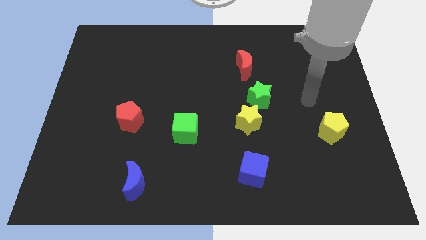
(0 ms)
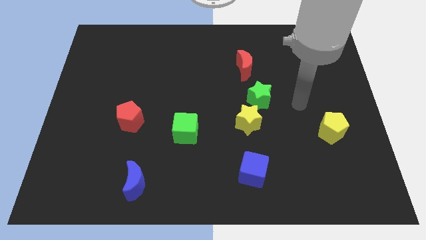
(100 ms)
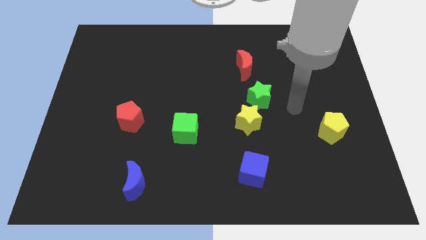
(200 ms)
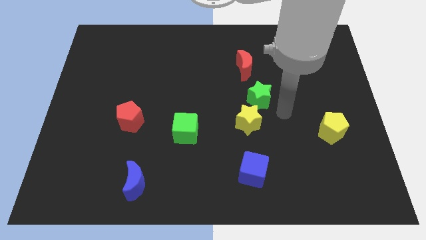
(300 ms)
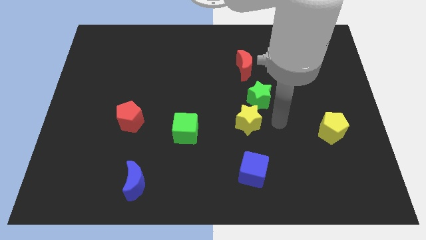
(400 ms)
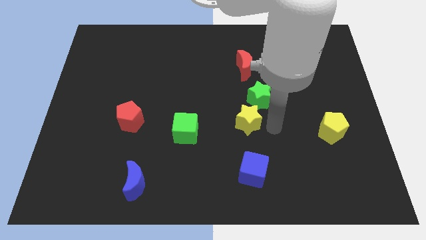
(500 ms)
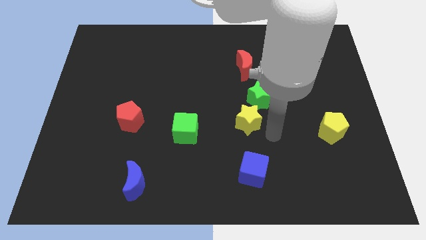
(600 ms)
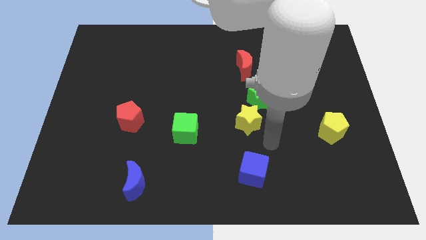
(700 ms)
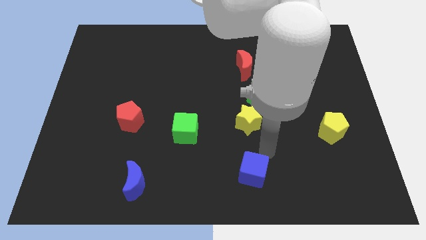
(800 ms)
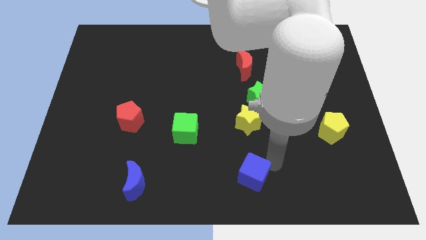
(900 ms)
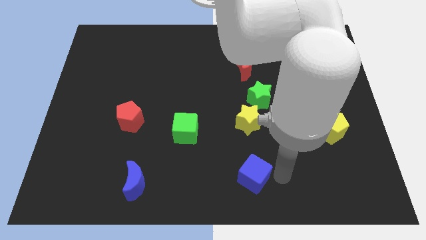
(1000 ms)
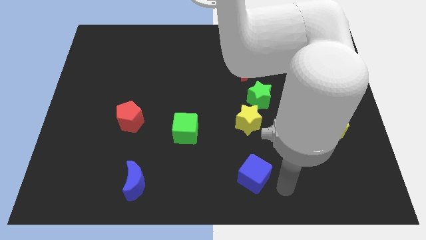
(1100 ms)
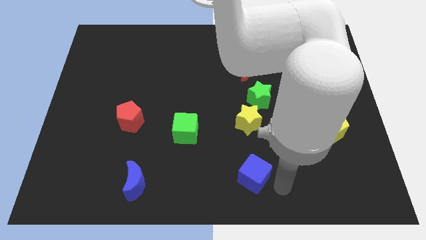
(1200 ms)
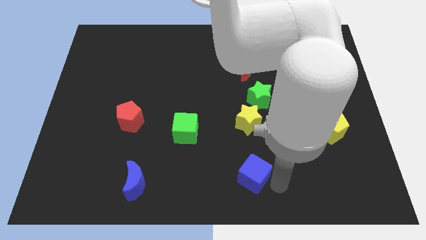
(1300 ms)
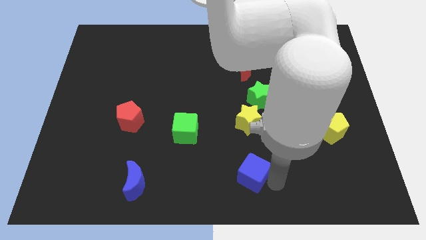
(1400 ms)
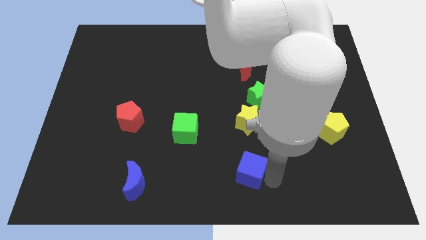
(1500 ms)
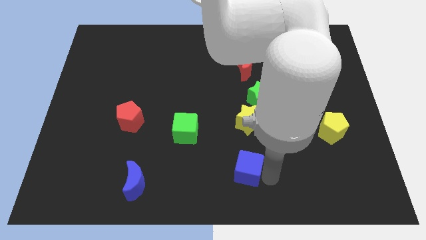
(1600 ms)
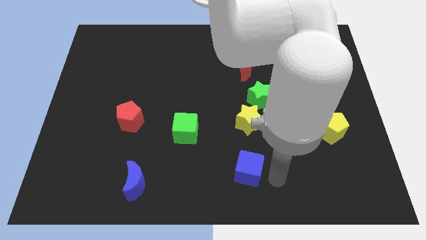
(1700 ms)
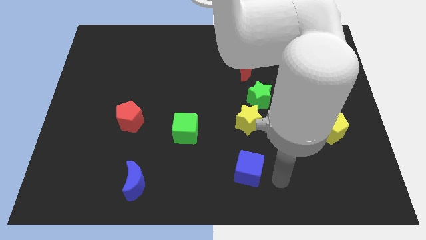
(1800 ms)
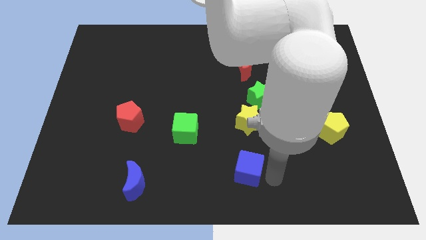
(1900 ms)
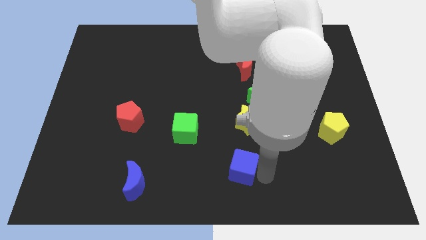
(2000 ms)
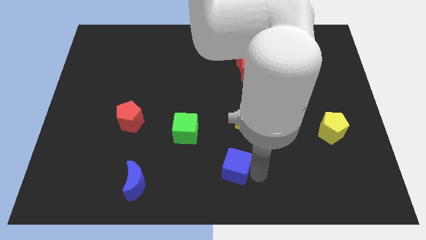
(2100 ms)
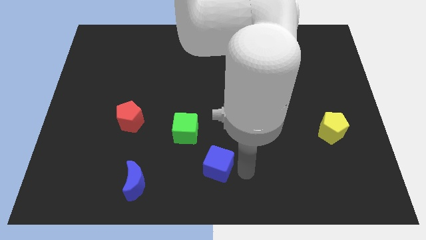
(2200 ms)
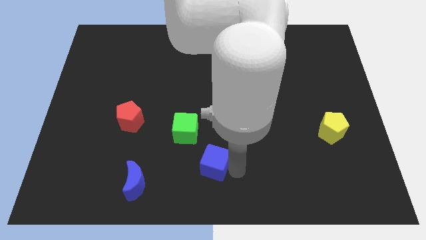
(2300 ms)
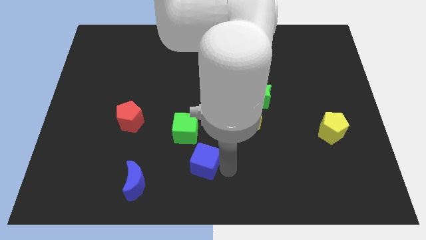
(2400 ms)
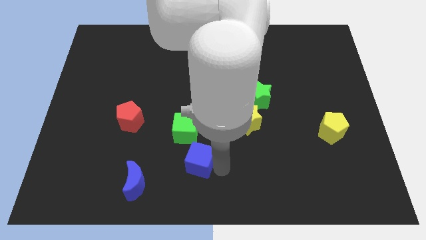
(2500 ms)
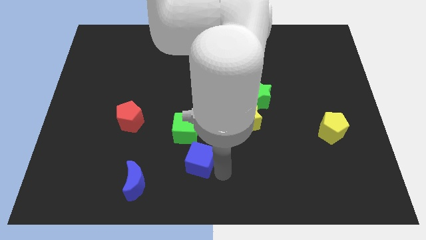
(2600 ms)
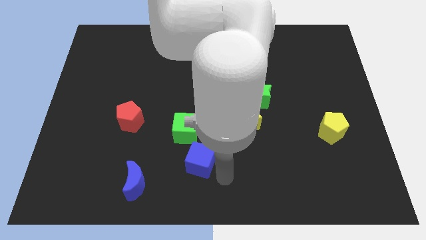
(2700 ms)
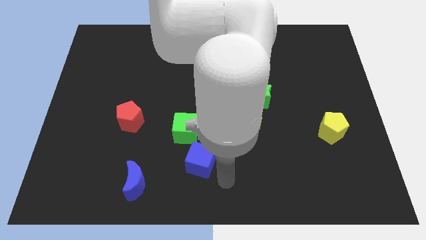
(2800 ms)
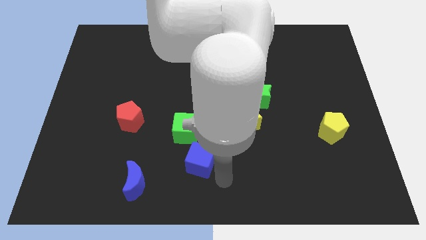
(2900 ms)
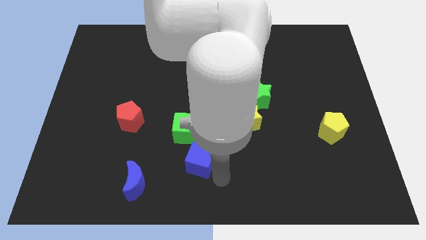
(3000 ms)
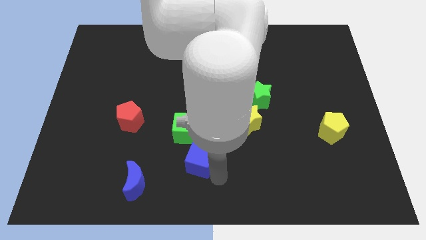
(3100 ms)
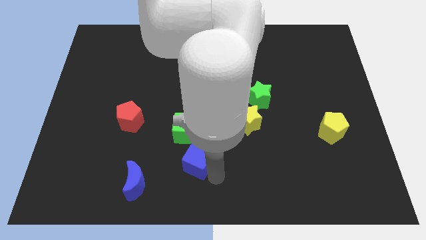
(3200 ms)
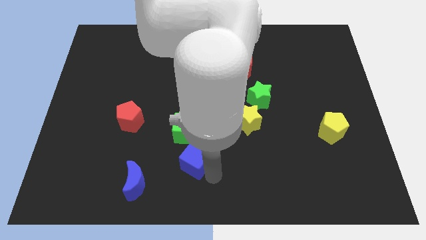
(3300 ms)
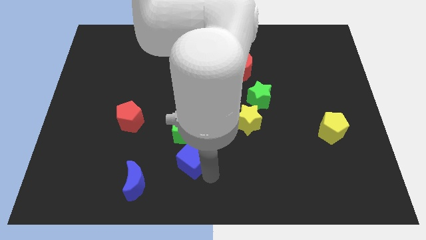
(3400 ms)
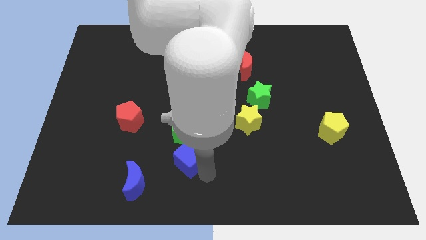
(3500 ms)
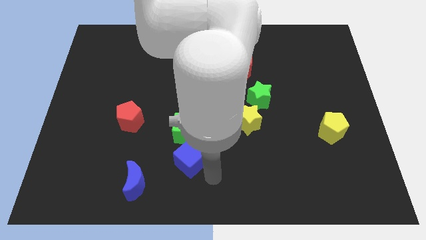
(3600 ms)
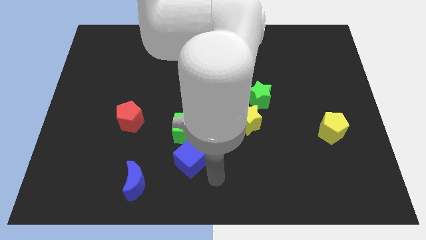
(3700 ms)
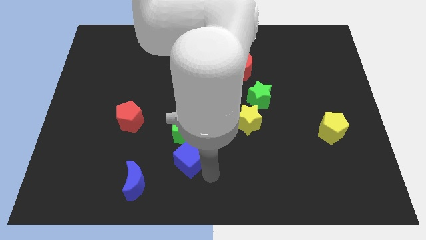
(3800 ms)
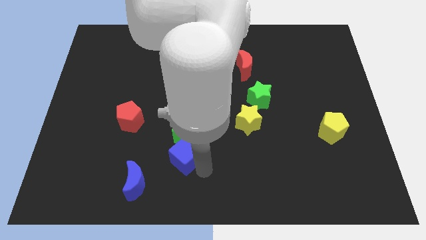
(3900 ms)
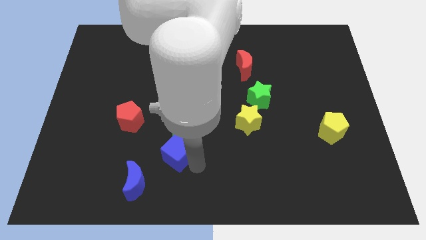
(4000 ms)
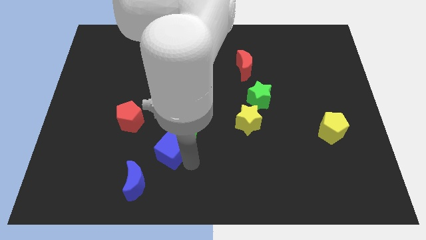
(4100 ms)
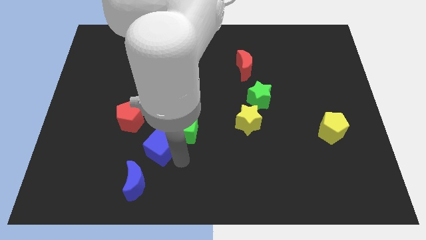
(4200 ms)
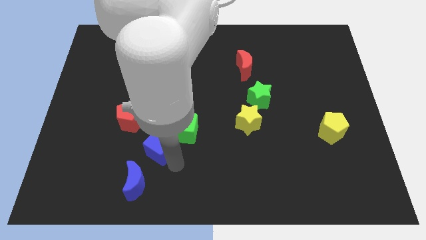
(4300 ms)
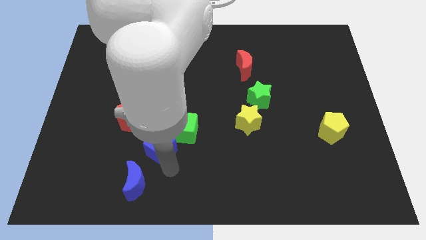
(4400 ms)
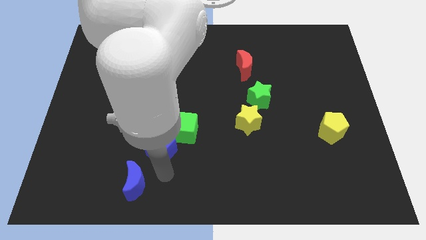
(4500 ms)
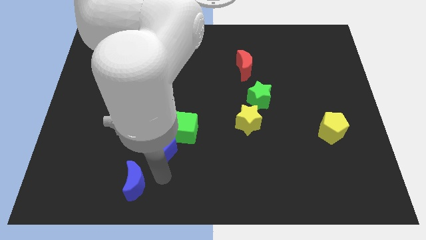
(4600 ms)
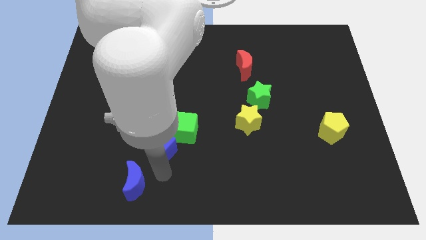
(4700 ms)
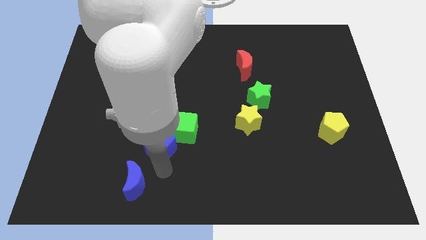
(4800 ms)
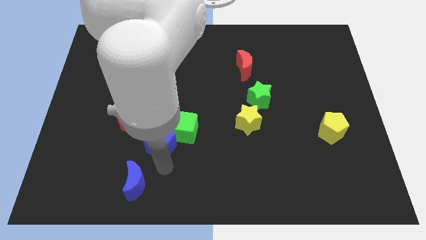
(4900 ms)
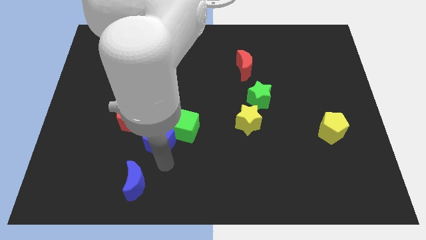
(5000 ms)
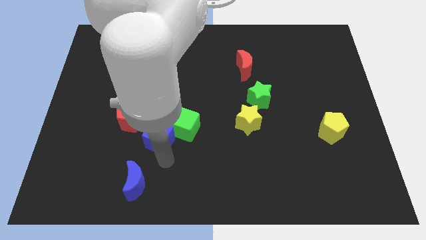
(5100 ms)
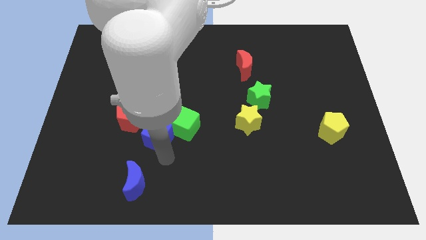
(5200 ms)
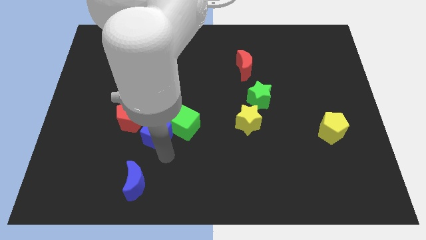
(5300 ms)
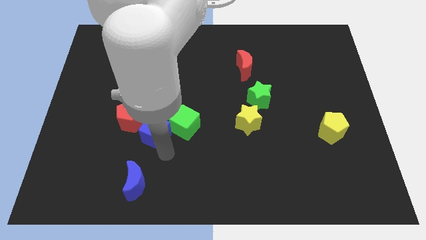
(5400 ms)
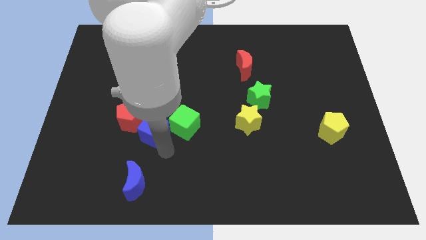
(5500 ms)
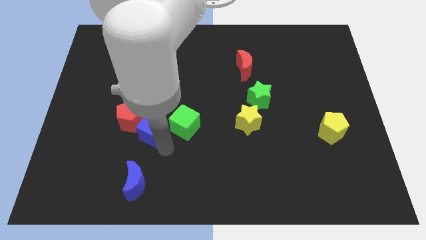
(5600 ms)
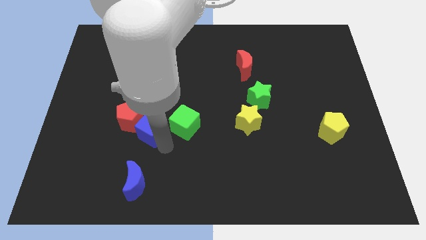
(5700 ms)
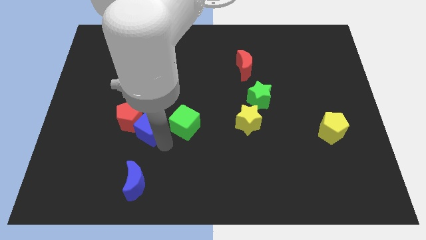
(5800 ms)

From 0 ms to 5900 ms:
slide the blue cube up and then to the left

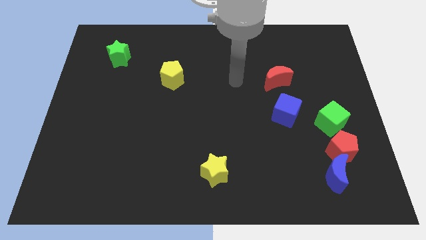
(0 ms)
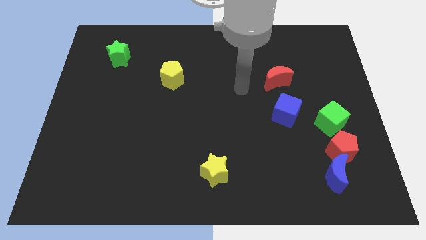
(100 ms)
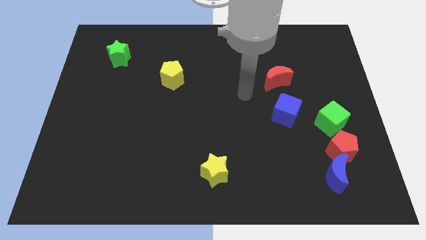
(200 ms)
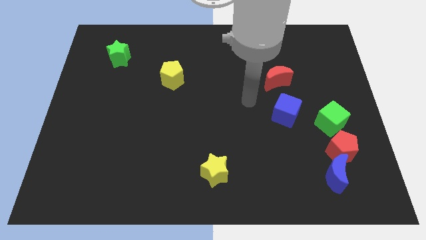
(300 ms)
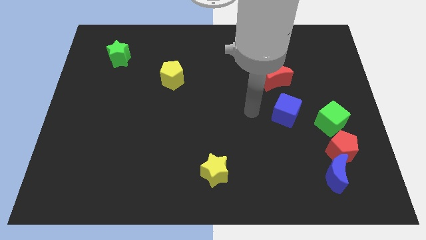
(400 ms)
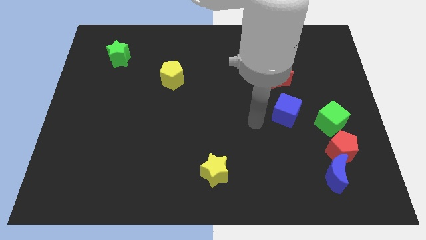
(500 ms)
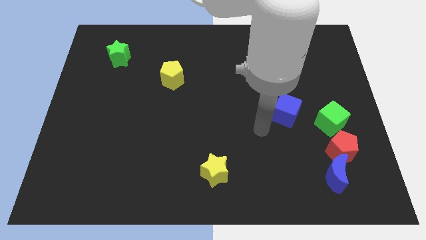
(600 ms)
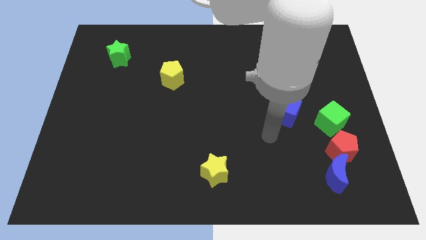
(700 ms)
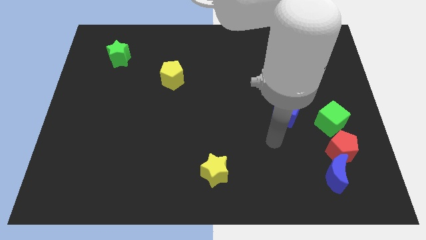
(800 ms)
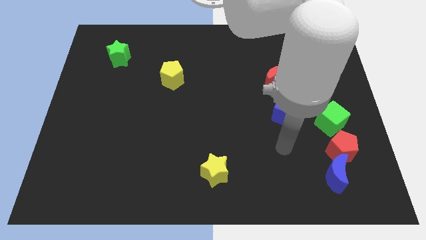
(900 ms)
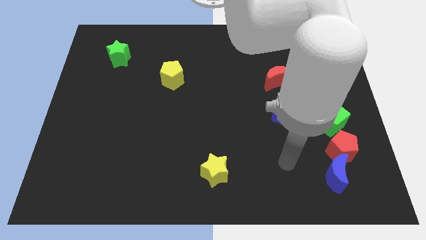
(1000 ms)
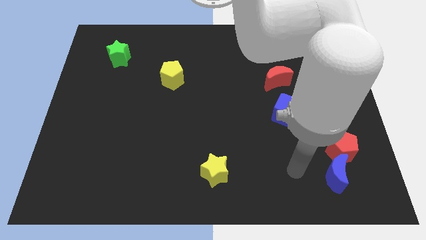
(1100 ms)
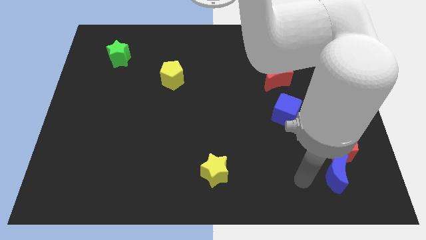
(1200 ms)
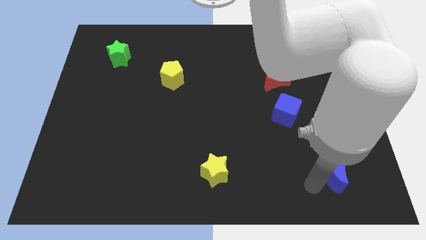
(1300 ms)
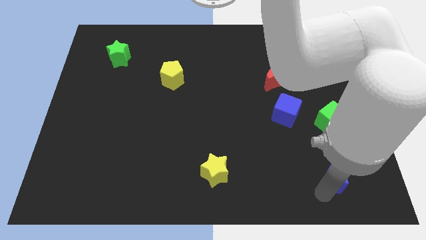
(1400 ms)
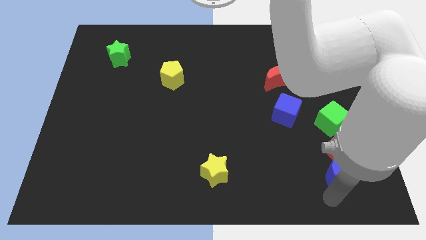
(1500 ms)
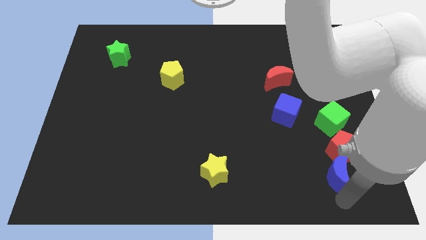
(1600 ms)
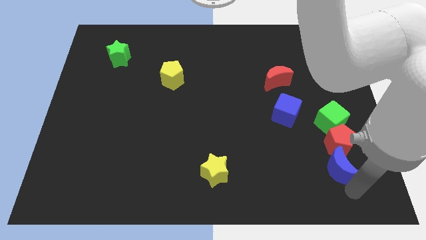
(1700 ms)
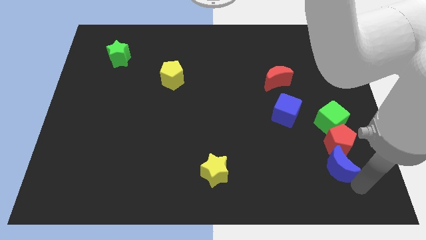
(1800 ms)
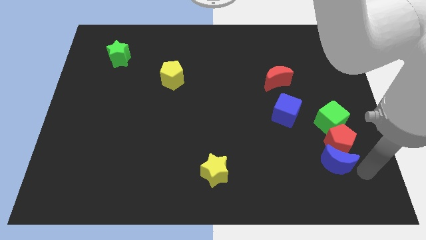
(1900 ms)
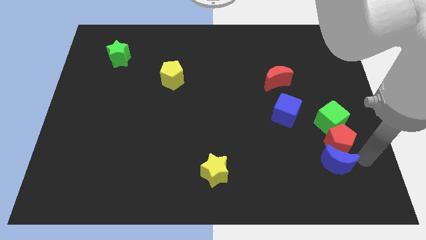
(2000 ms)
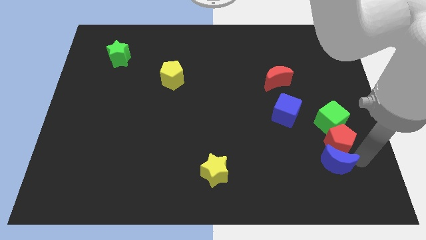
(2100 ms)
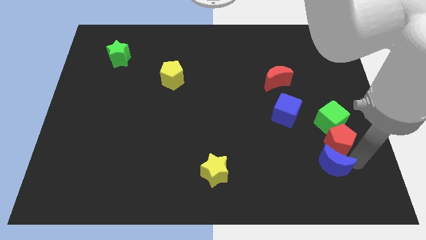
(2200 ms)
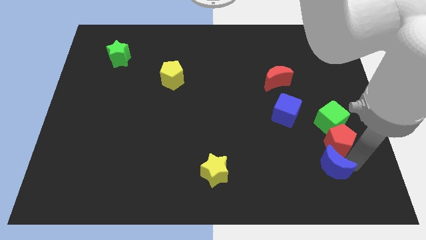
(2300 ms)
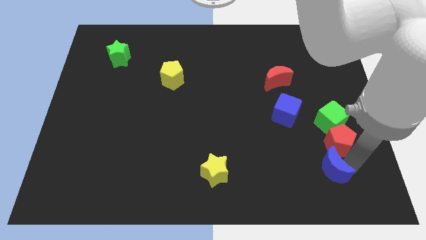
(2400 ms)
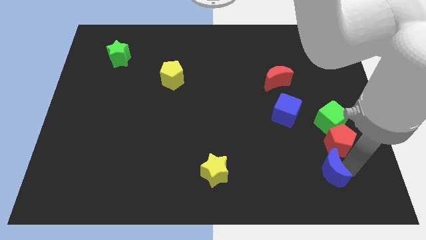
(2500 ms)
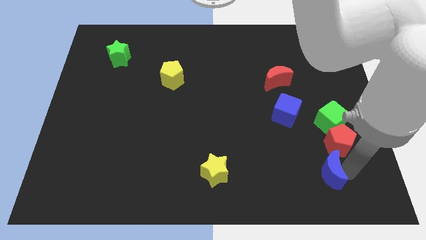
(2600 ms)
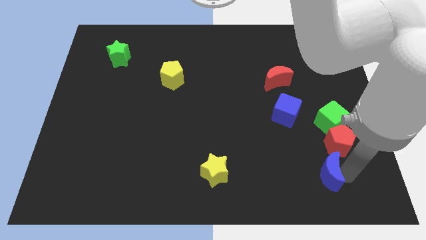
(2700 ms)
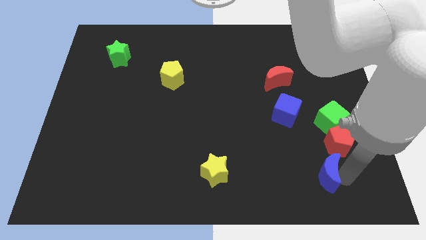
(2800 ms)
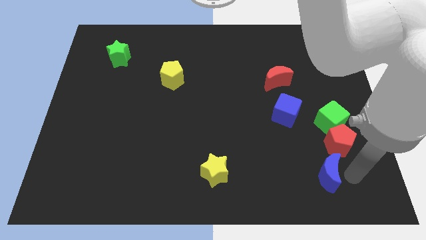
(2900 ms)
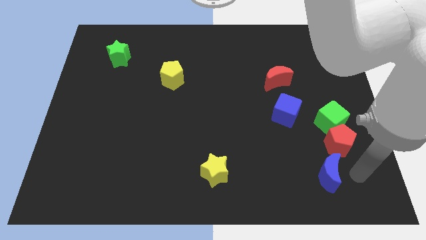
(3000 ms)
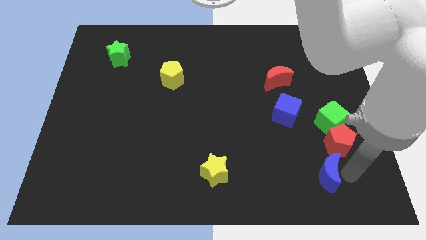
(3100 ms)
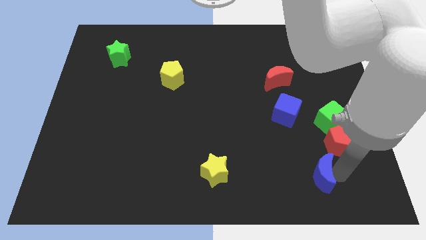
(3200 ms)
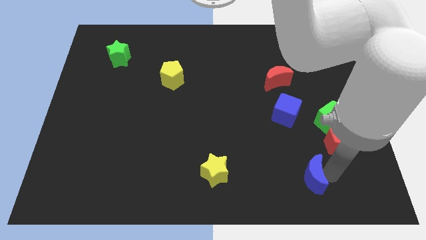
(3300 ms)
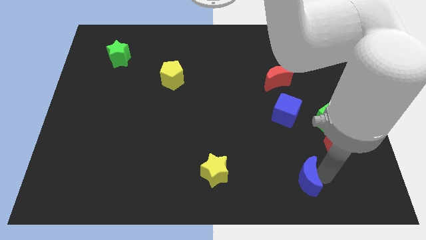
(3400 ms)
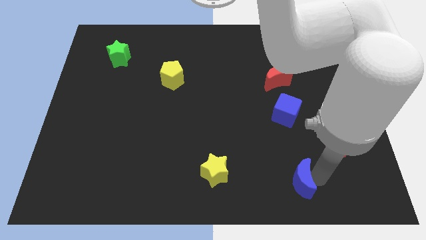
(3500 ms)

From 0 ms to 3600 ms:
move the blue moon a little left
